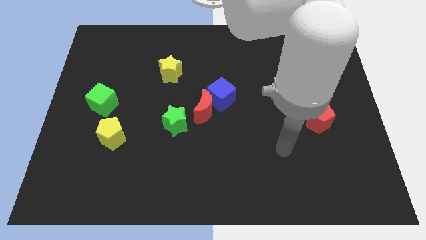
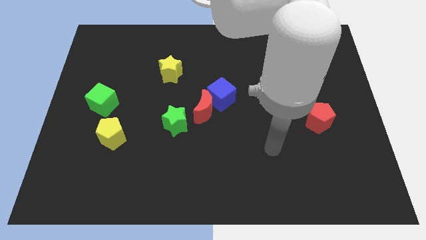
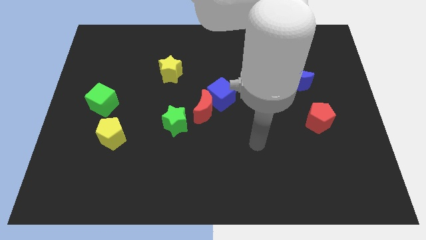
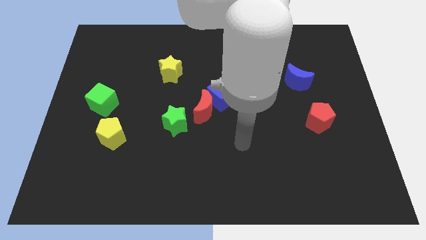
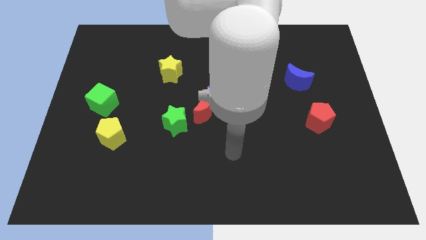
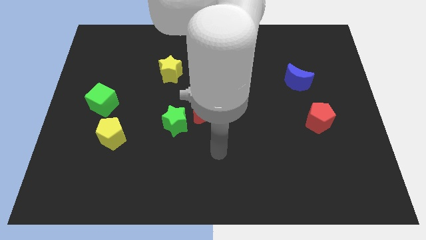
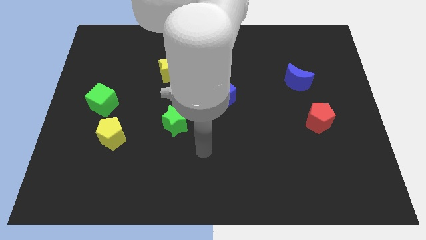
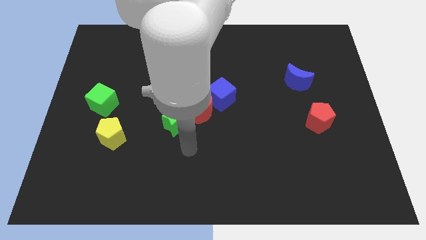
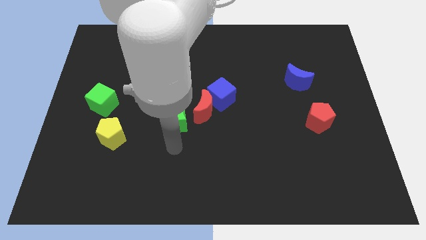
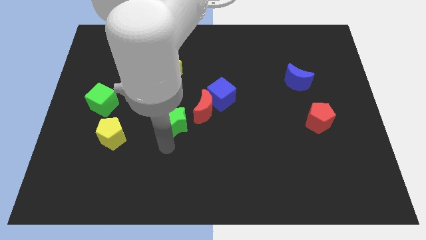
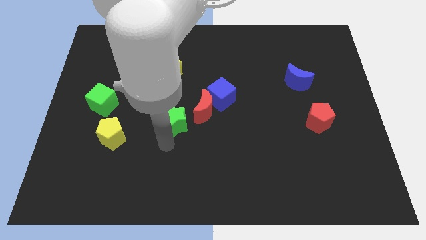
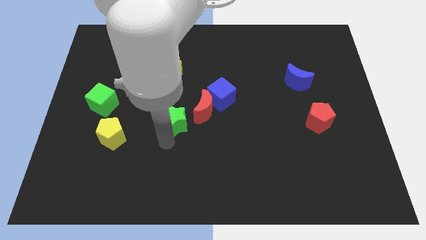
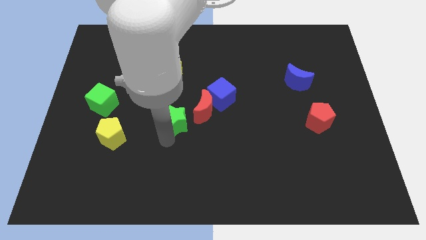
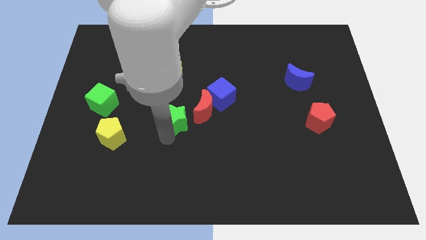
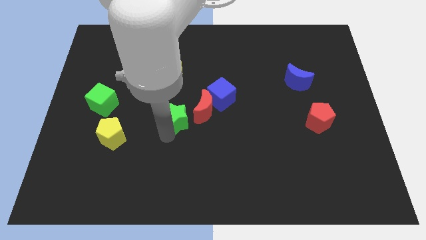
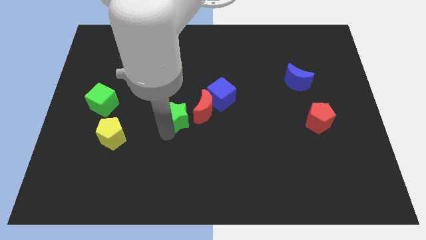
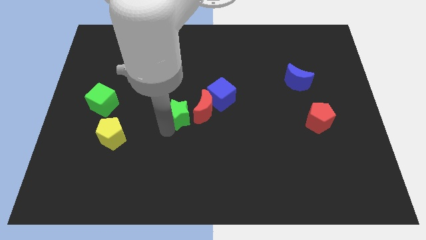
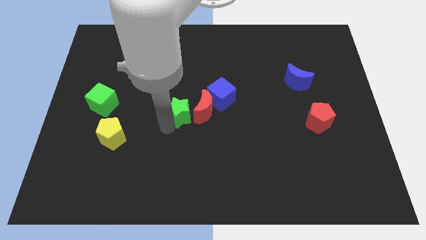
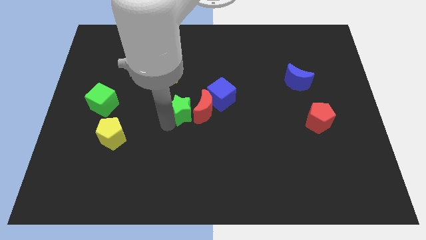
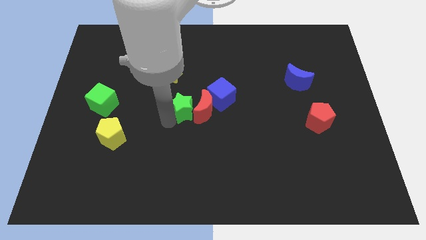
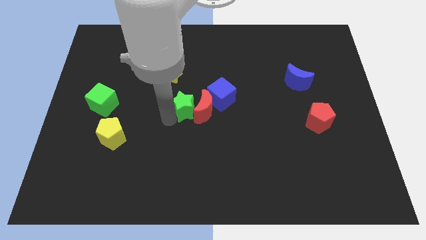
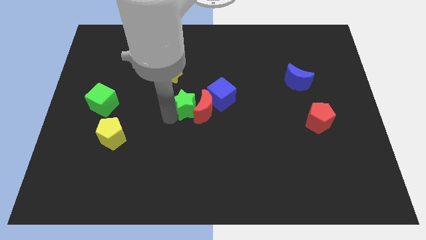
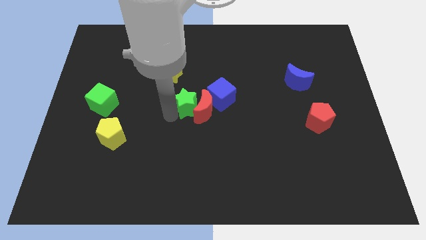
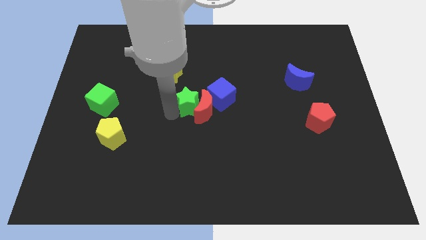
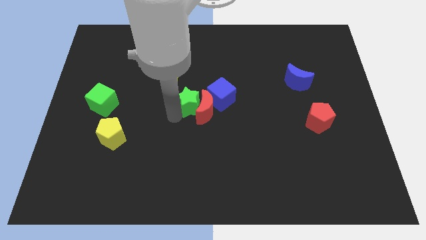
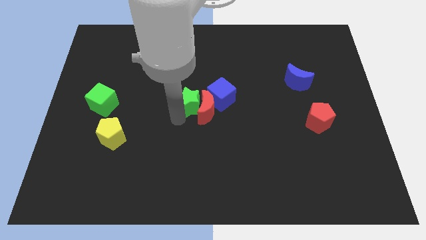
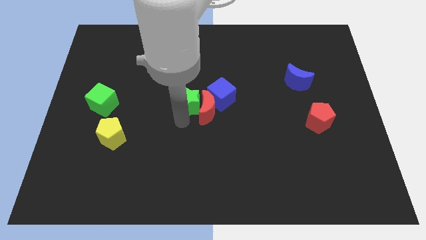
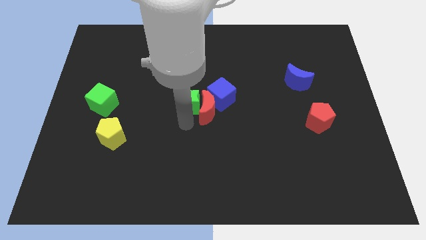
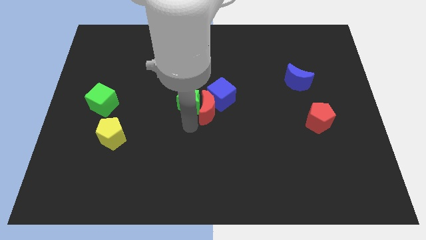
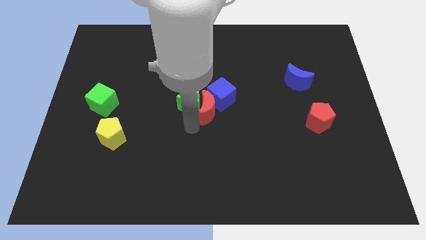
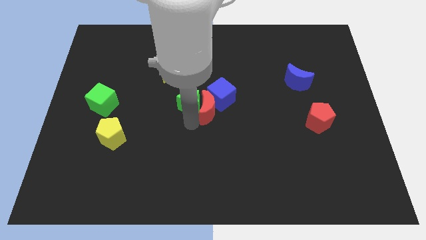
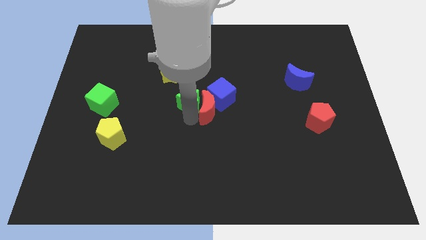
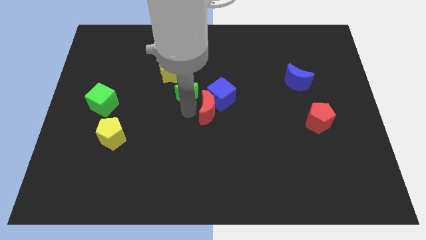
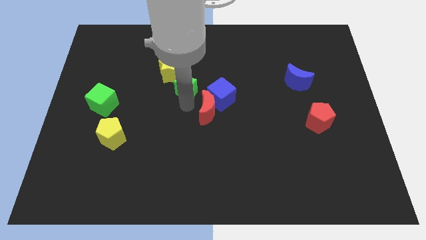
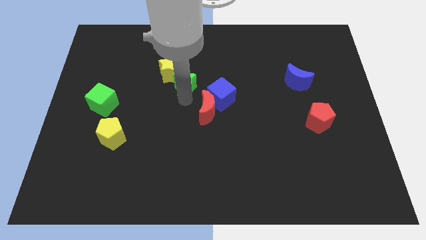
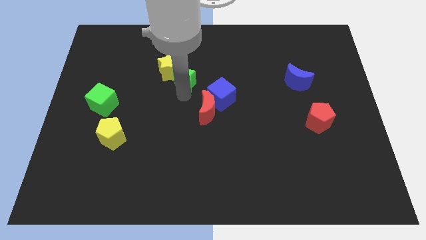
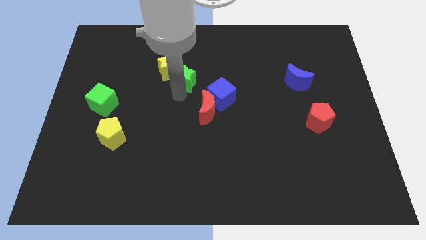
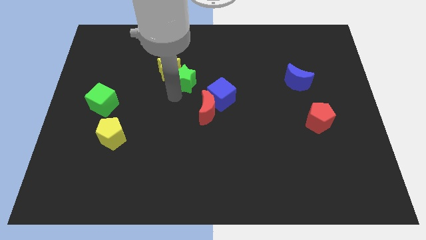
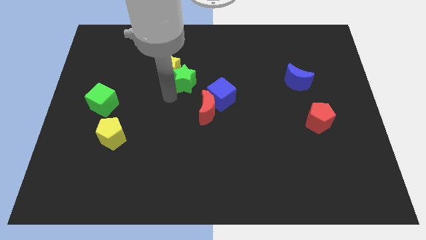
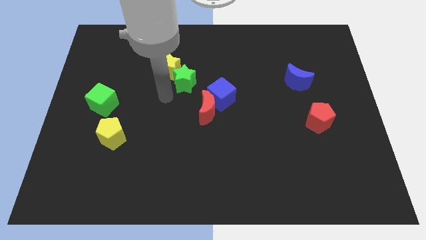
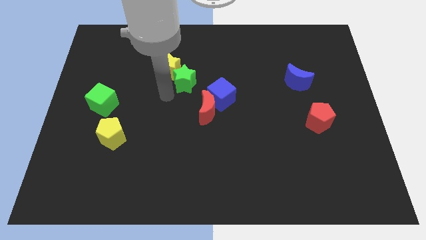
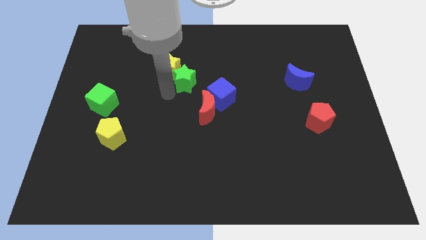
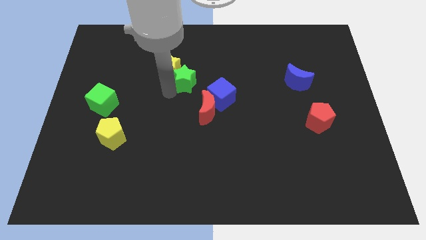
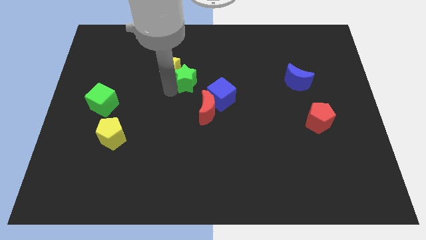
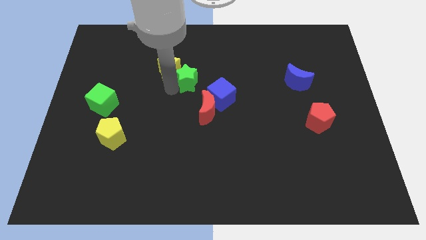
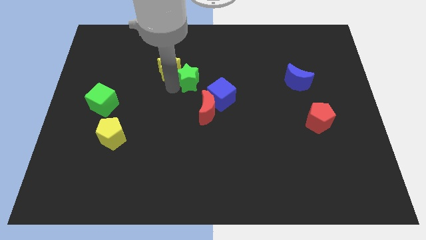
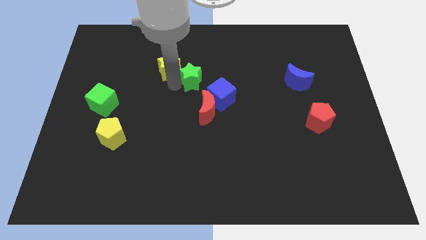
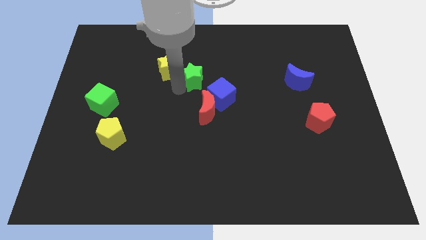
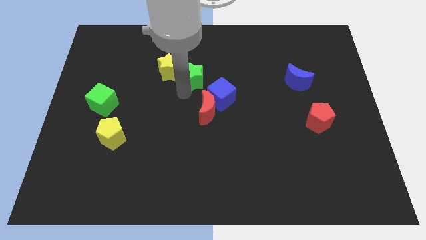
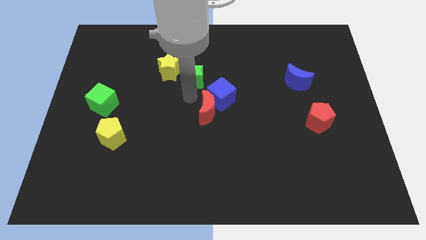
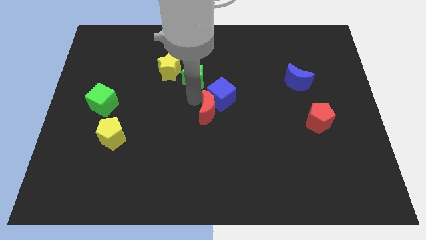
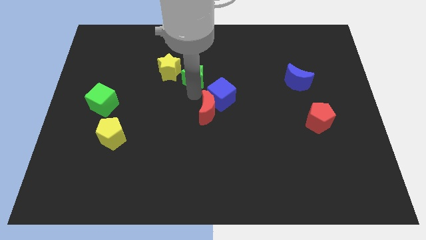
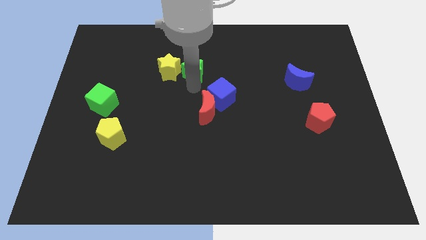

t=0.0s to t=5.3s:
slide the green star diagonally up and to the right of the yellow star

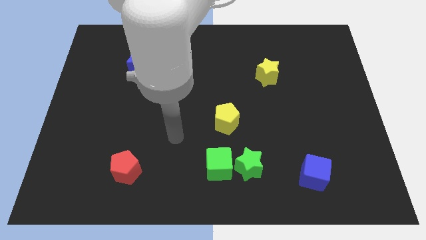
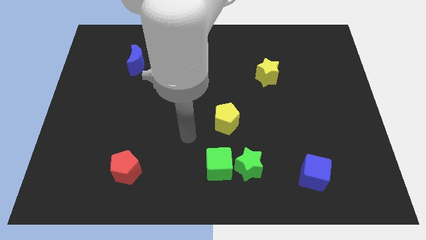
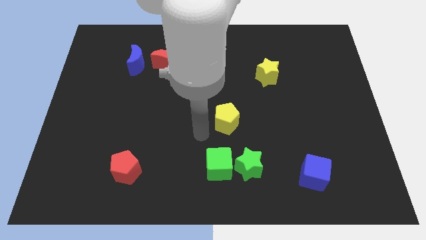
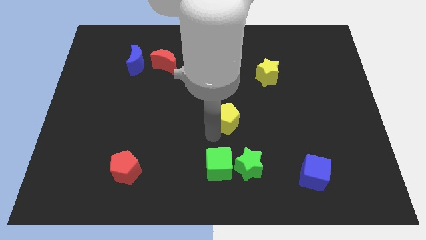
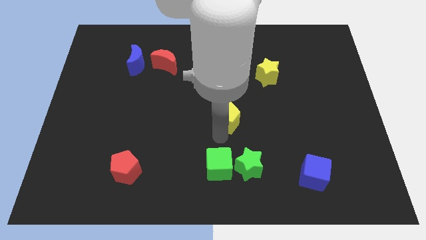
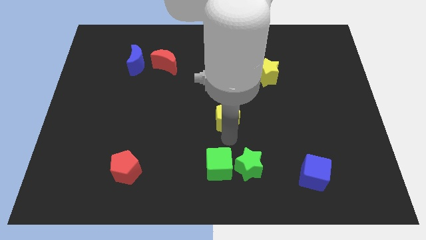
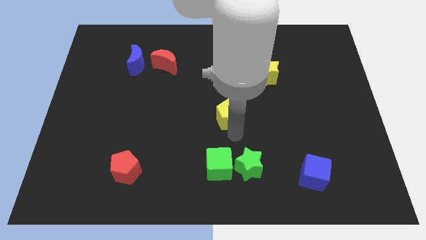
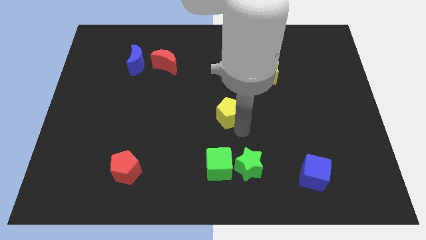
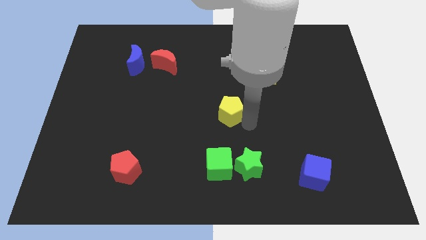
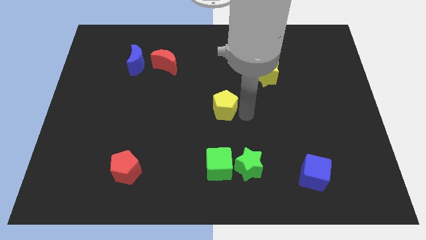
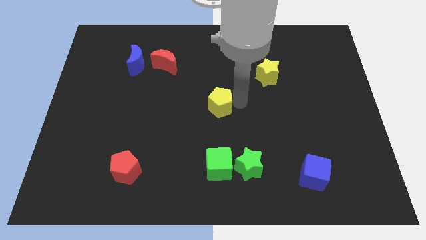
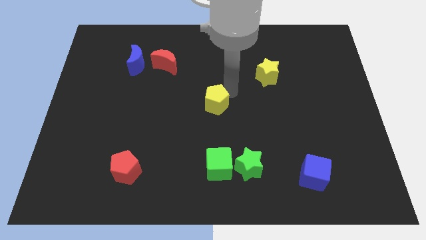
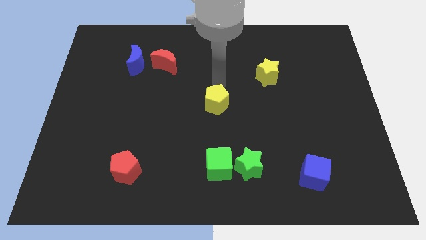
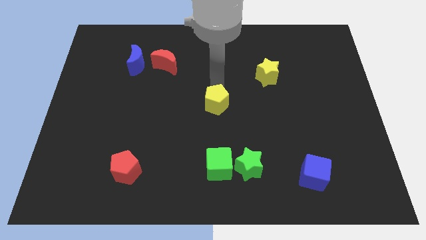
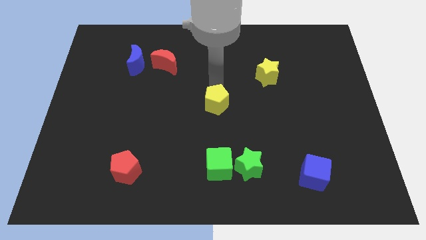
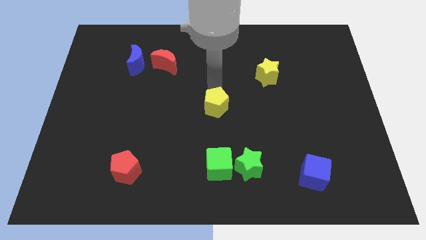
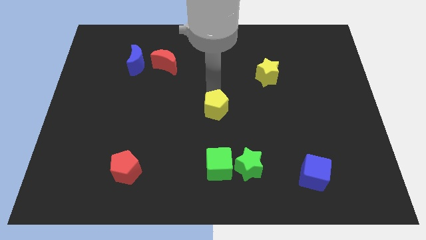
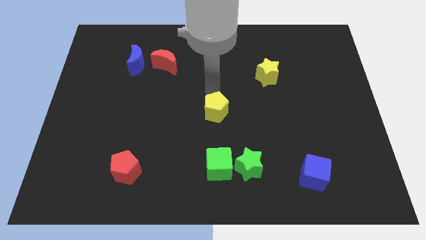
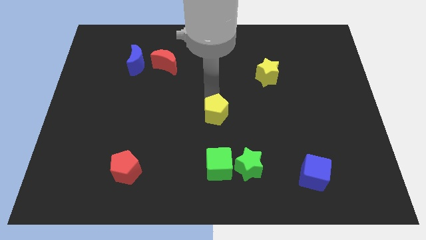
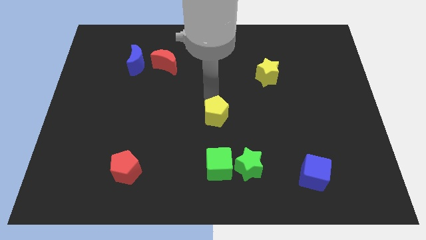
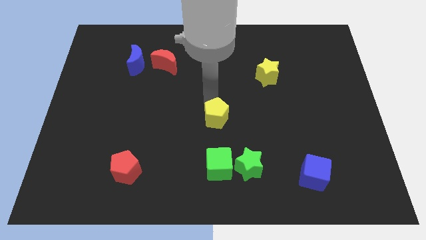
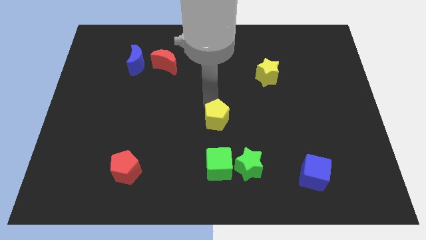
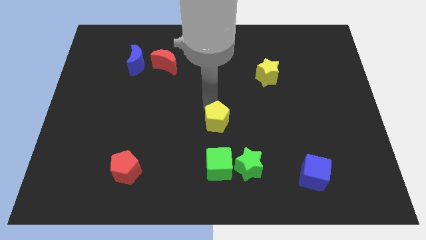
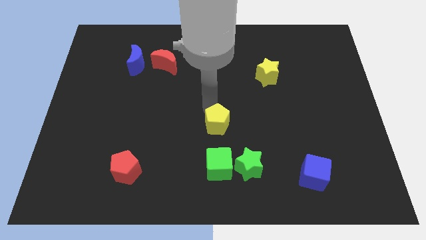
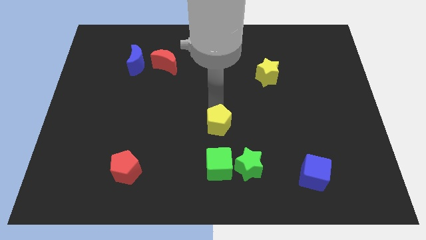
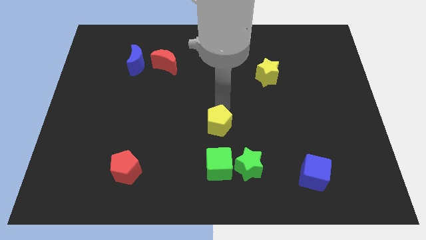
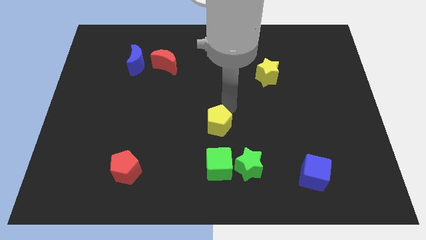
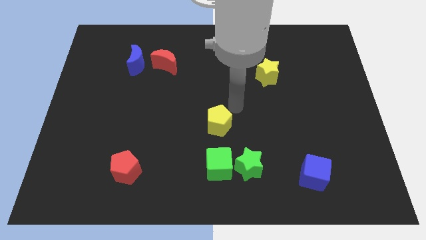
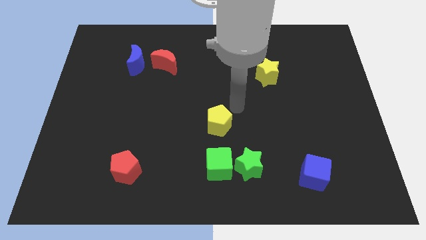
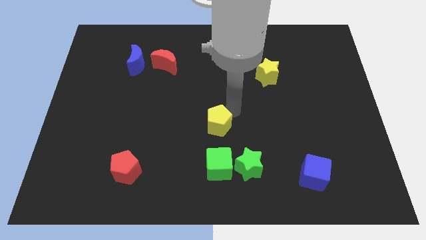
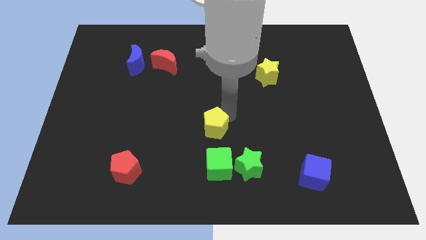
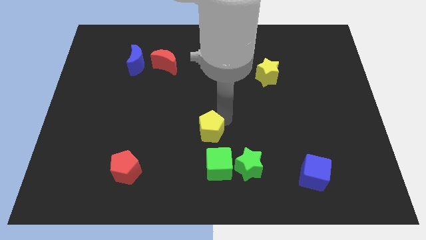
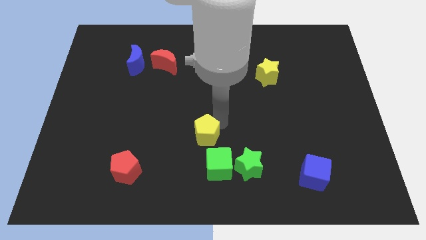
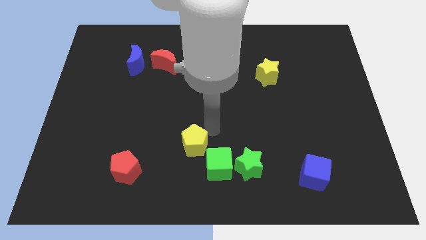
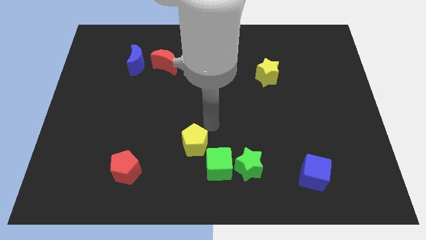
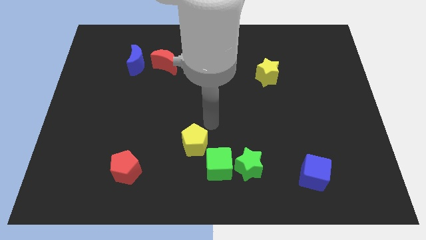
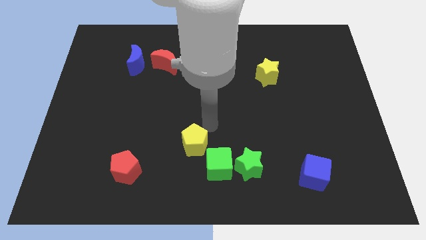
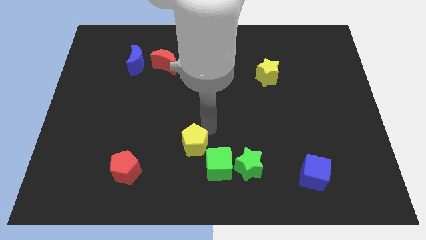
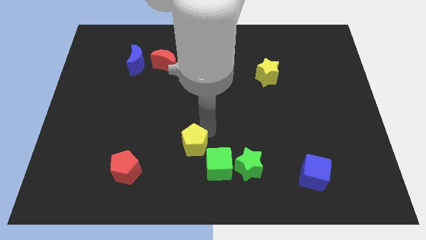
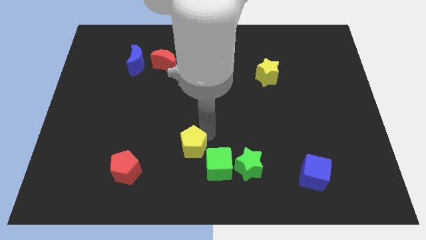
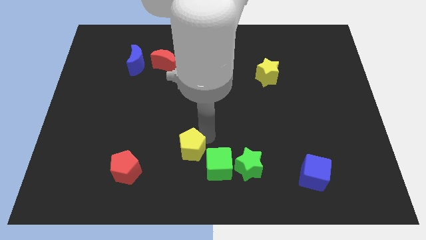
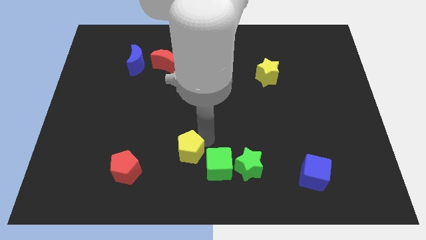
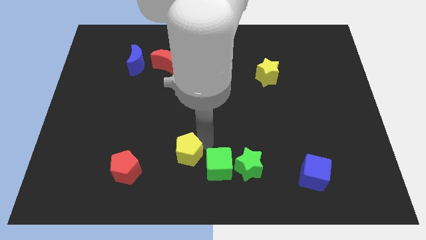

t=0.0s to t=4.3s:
put the yellow pentagon right of the red pentagon
